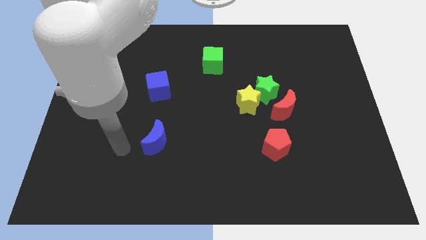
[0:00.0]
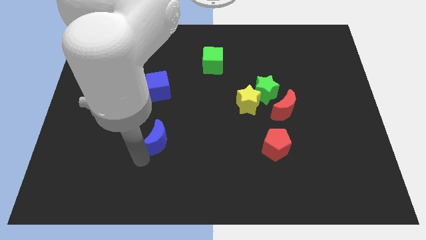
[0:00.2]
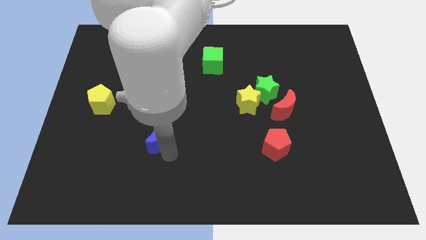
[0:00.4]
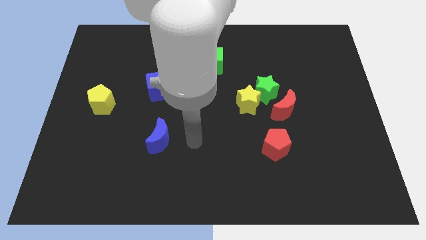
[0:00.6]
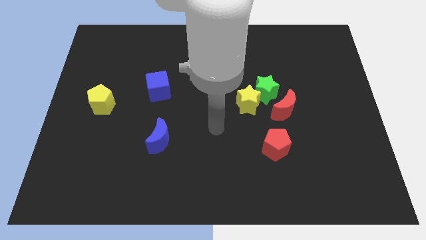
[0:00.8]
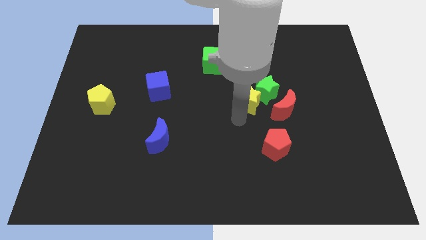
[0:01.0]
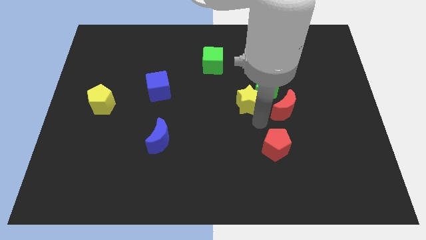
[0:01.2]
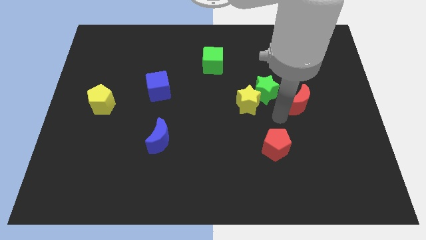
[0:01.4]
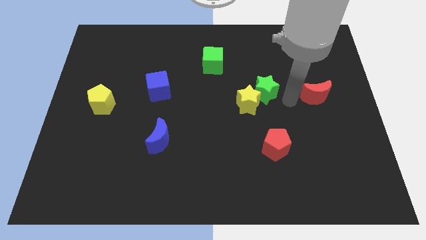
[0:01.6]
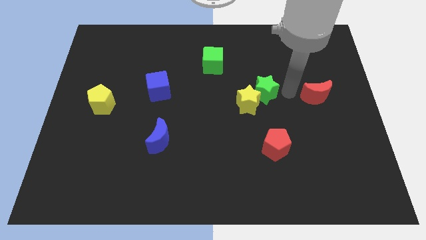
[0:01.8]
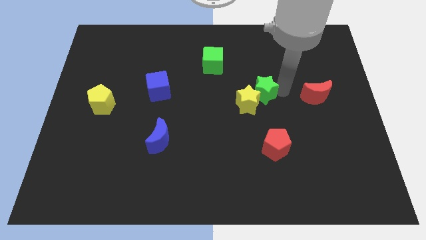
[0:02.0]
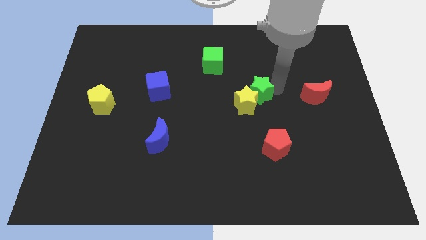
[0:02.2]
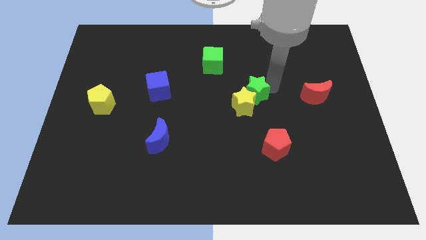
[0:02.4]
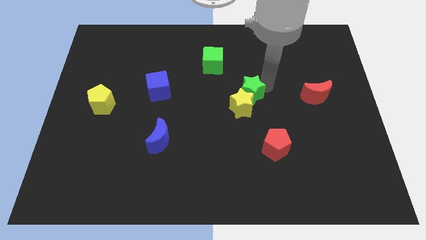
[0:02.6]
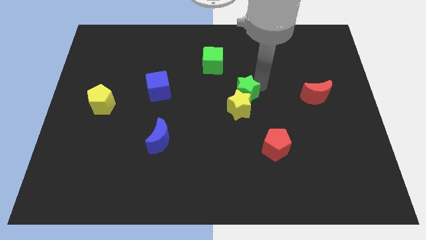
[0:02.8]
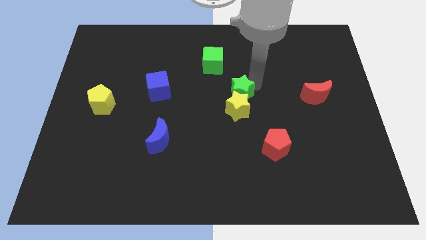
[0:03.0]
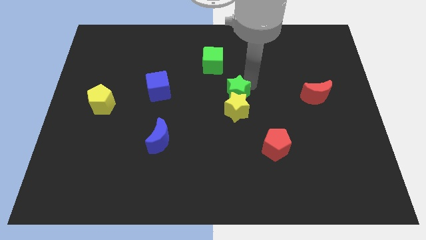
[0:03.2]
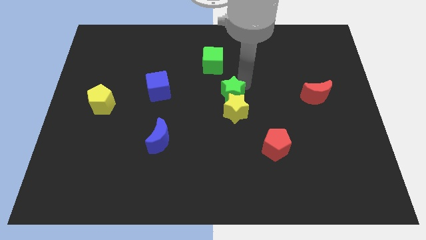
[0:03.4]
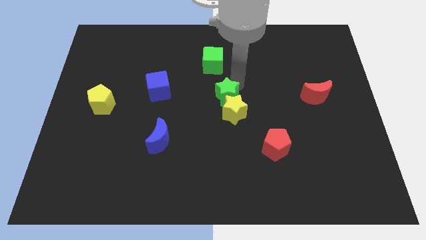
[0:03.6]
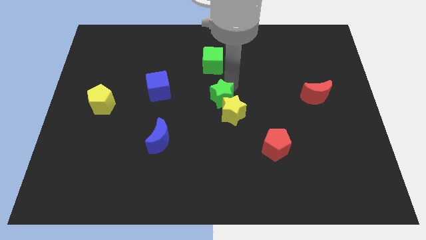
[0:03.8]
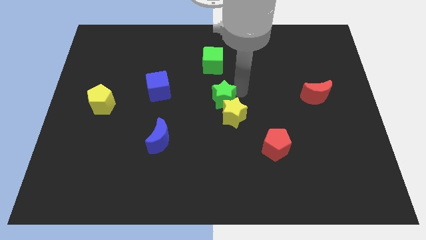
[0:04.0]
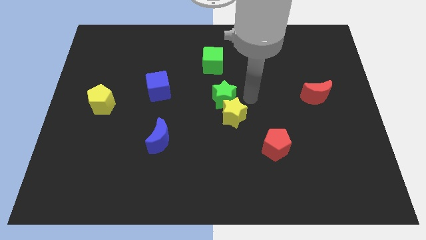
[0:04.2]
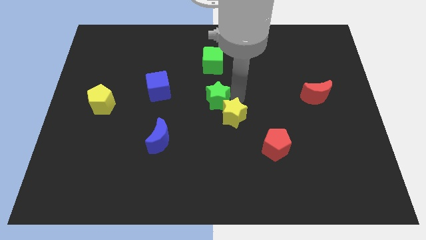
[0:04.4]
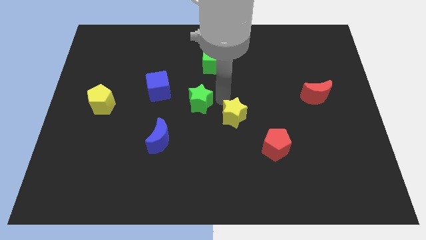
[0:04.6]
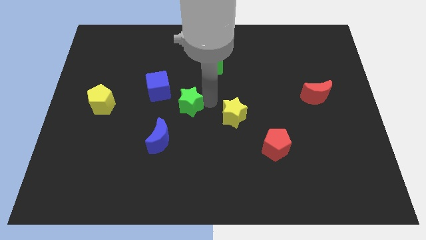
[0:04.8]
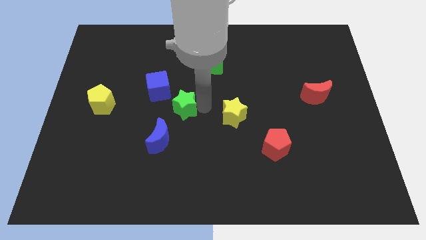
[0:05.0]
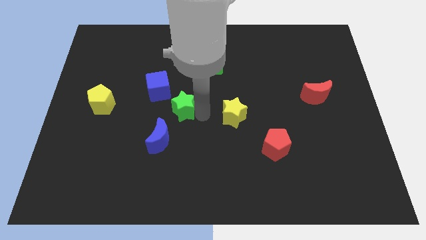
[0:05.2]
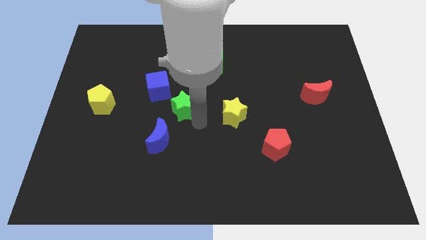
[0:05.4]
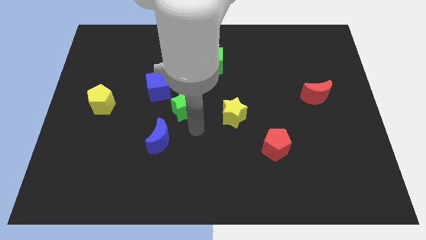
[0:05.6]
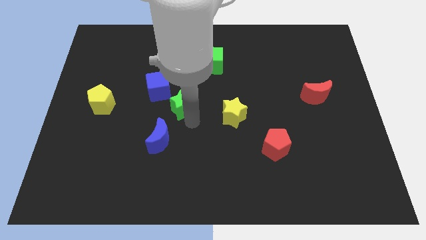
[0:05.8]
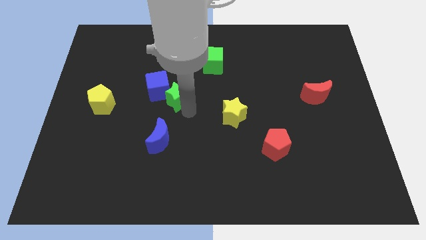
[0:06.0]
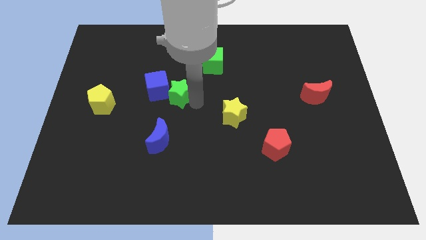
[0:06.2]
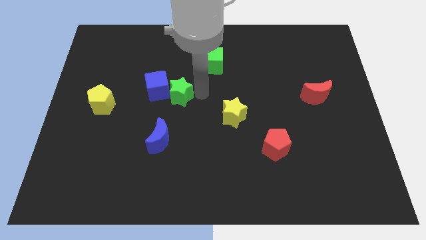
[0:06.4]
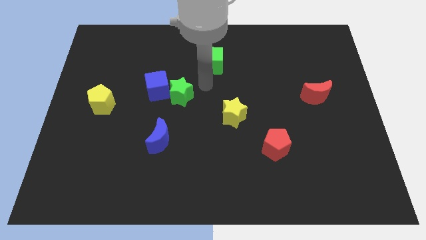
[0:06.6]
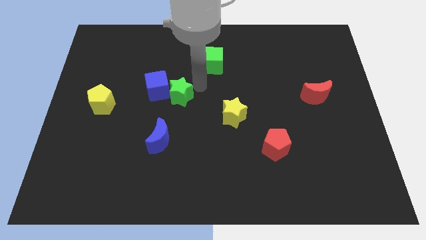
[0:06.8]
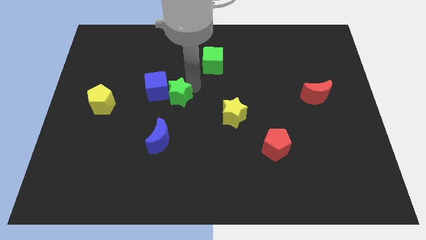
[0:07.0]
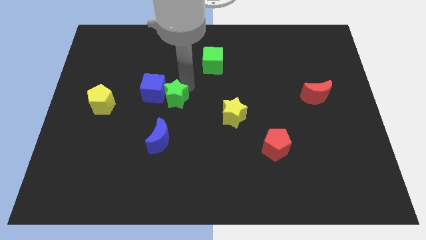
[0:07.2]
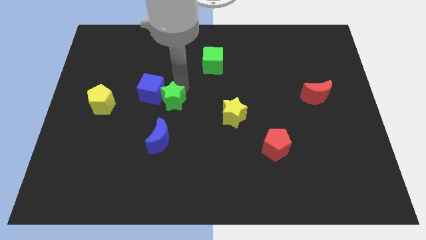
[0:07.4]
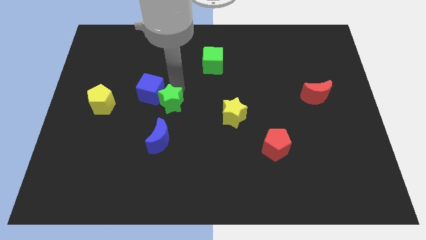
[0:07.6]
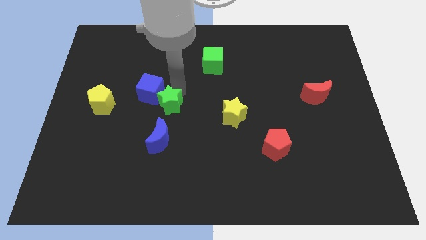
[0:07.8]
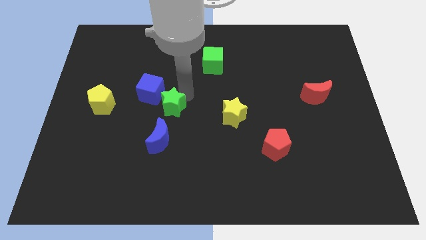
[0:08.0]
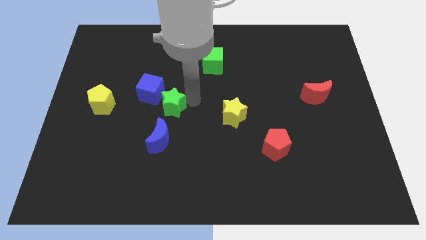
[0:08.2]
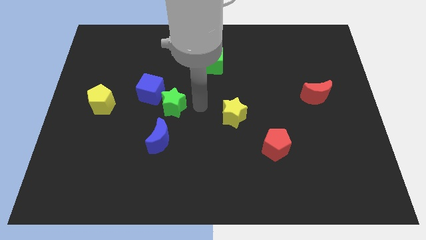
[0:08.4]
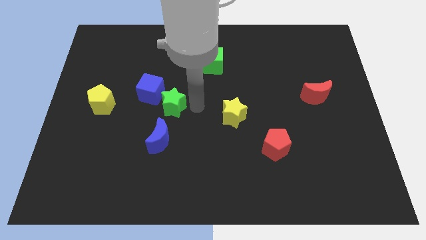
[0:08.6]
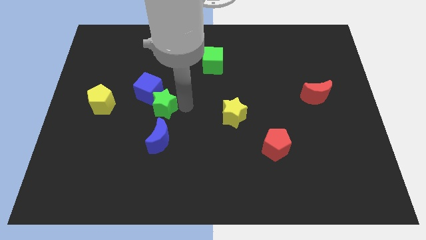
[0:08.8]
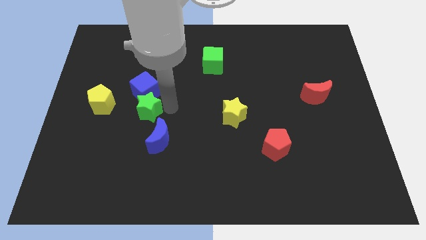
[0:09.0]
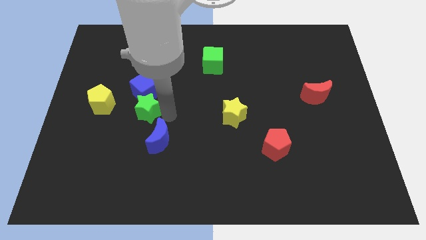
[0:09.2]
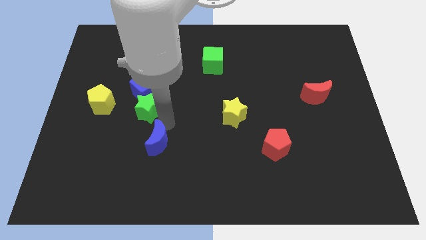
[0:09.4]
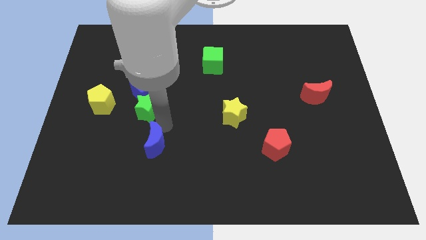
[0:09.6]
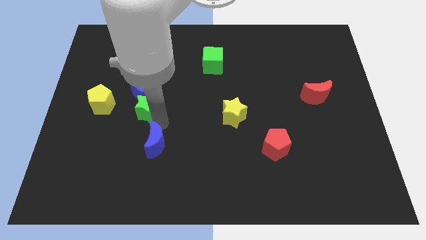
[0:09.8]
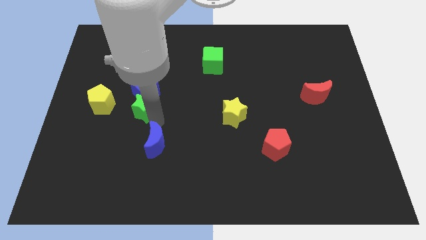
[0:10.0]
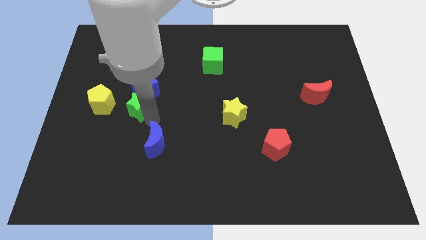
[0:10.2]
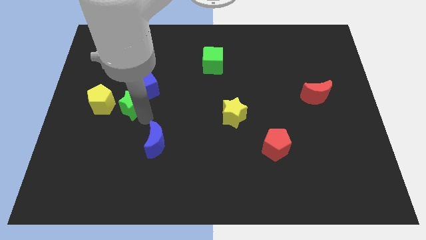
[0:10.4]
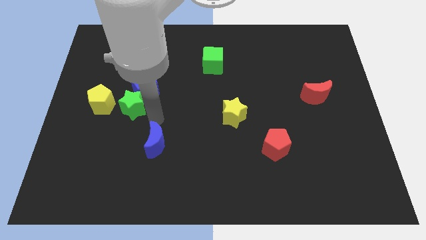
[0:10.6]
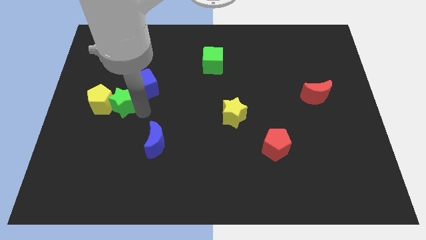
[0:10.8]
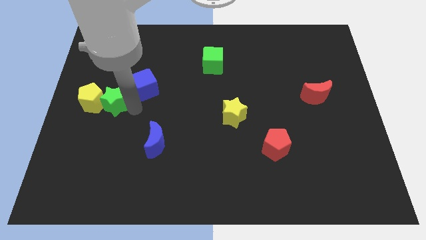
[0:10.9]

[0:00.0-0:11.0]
push the green star to the left side of the blue cube

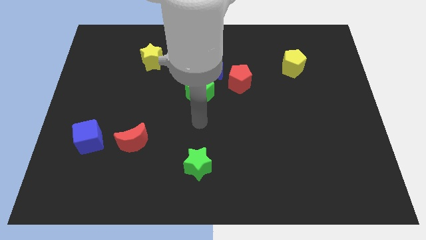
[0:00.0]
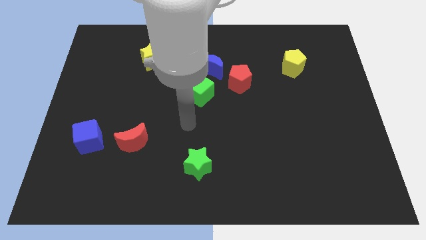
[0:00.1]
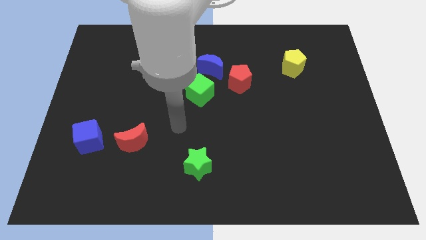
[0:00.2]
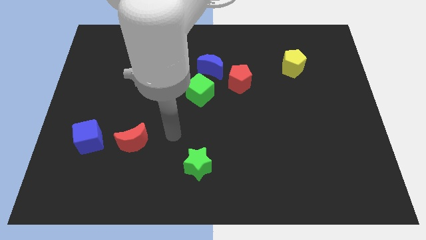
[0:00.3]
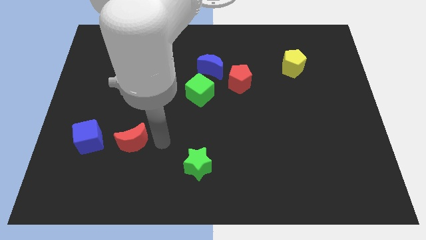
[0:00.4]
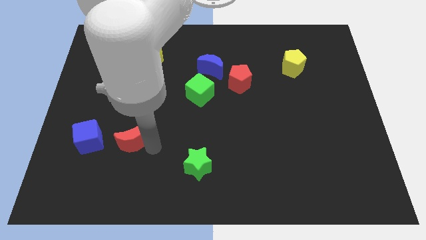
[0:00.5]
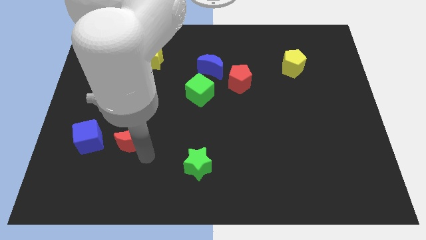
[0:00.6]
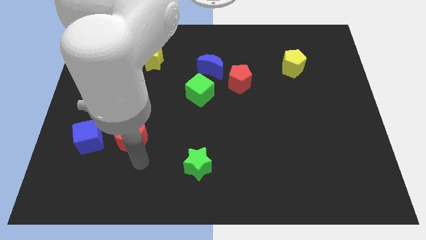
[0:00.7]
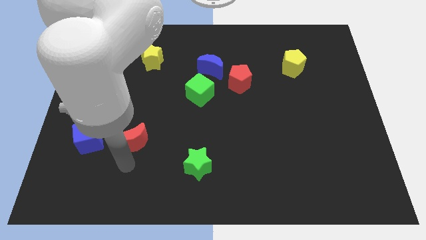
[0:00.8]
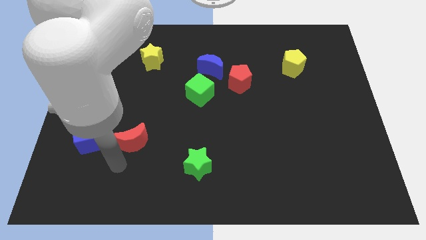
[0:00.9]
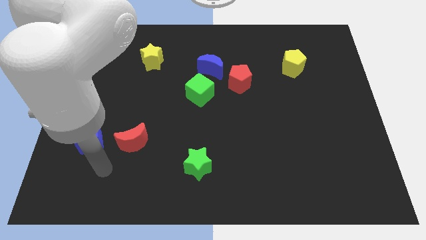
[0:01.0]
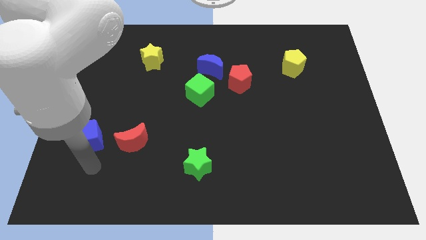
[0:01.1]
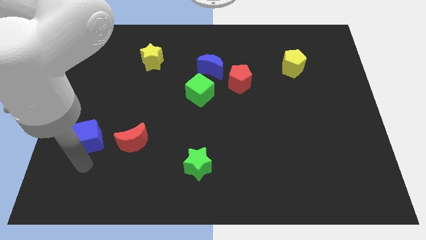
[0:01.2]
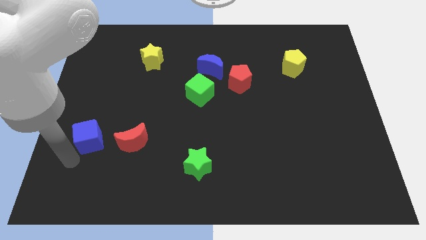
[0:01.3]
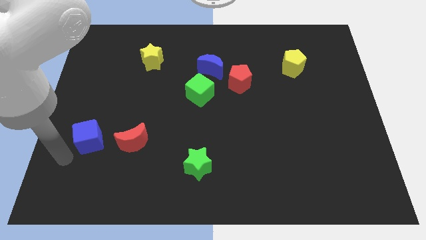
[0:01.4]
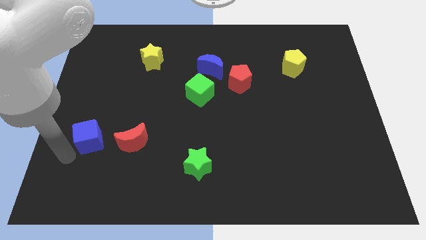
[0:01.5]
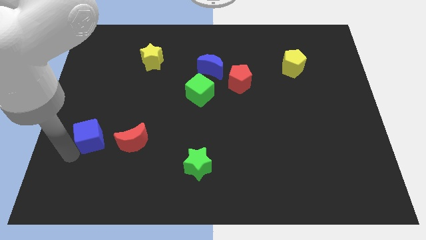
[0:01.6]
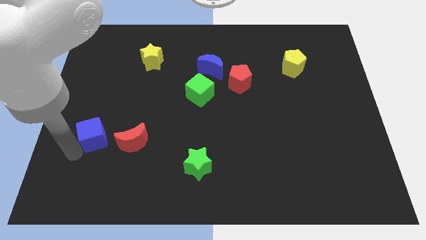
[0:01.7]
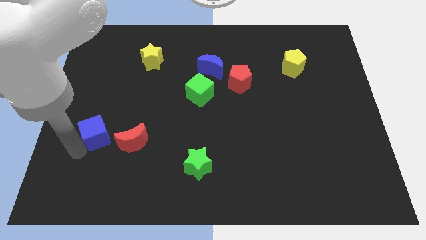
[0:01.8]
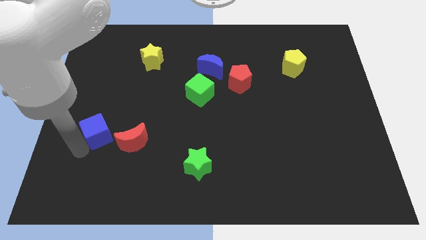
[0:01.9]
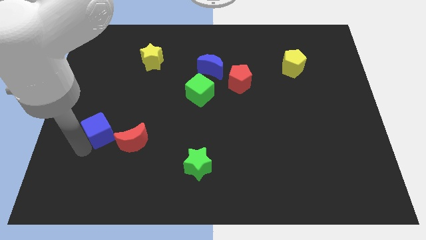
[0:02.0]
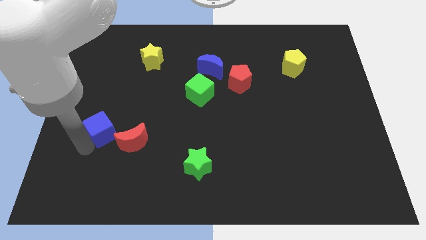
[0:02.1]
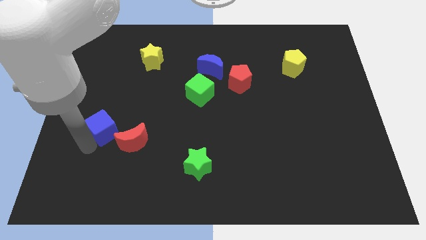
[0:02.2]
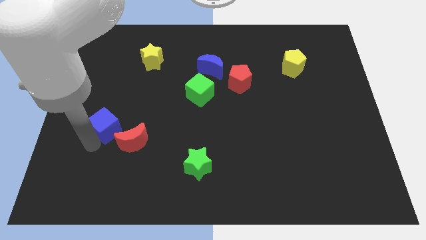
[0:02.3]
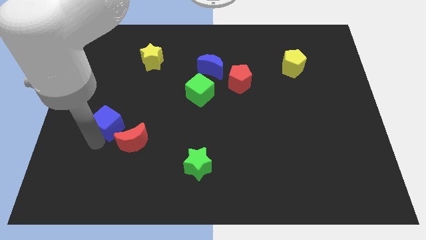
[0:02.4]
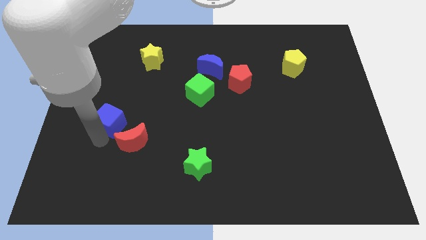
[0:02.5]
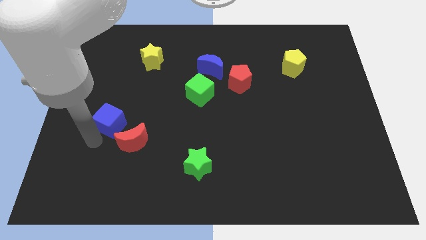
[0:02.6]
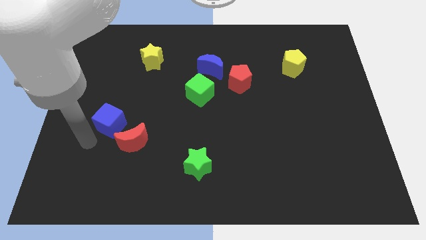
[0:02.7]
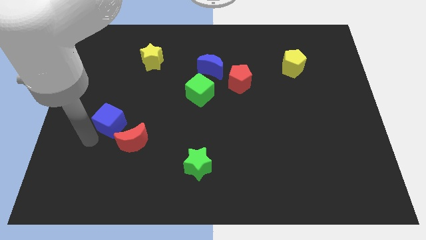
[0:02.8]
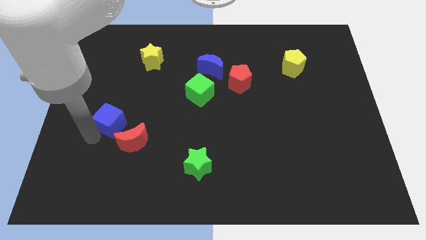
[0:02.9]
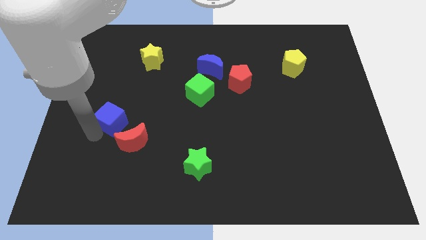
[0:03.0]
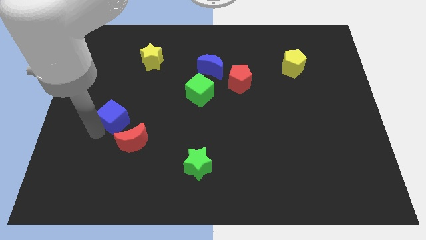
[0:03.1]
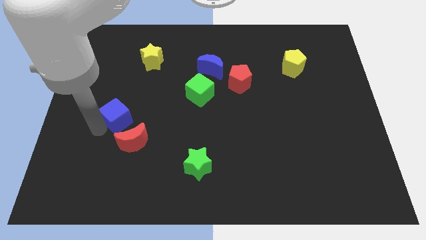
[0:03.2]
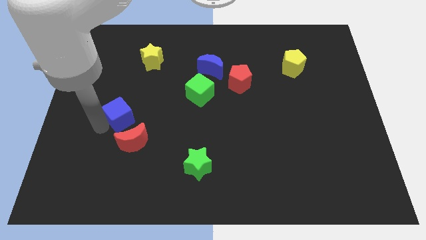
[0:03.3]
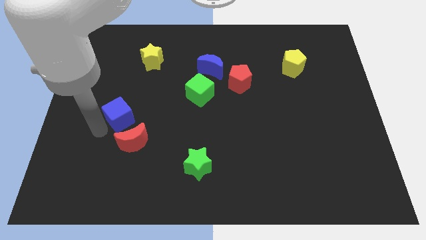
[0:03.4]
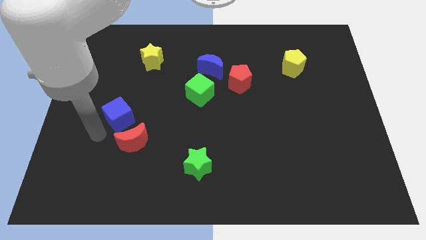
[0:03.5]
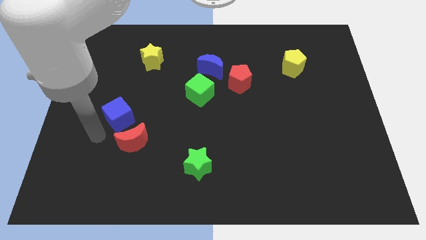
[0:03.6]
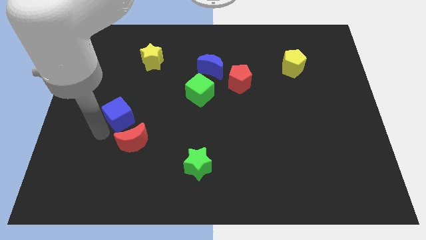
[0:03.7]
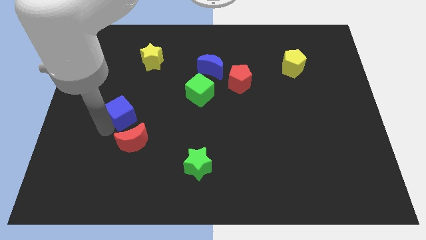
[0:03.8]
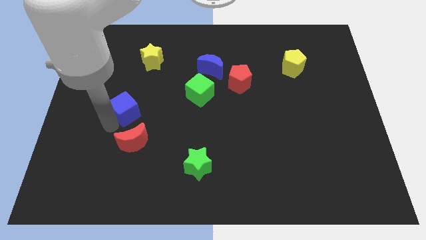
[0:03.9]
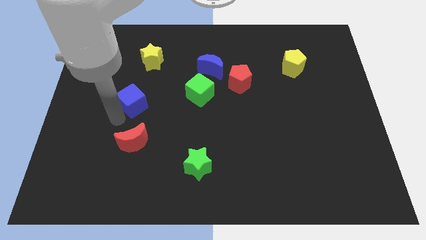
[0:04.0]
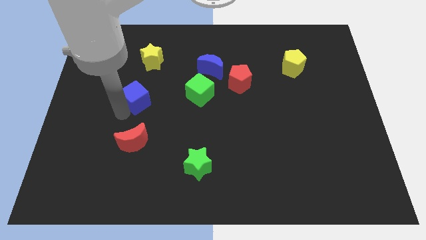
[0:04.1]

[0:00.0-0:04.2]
put the blue cube just left of the green cube
